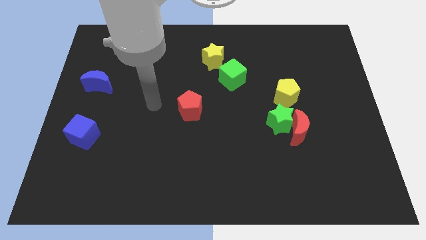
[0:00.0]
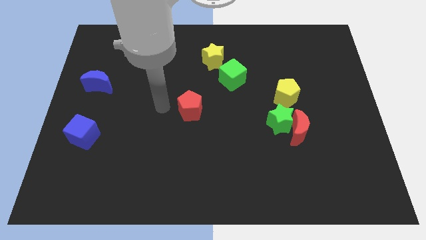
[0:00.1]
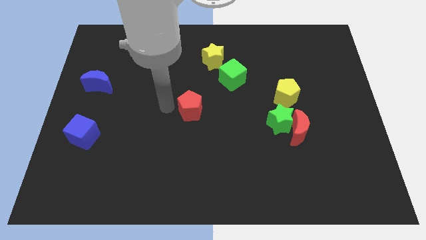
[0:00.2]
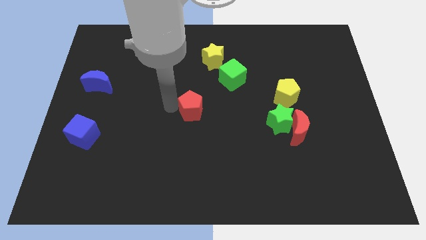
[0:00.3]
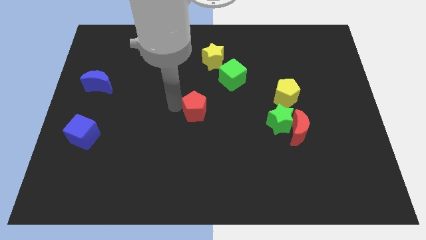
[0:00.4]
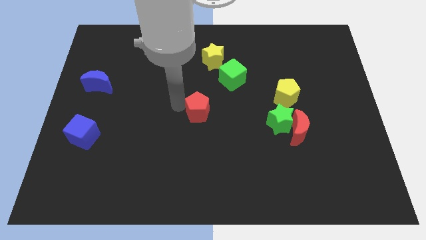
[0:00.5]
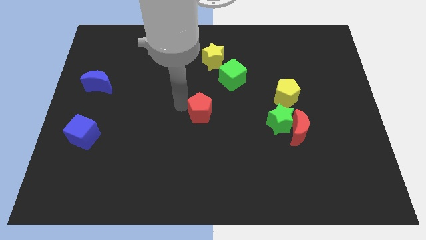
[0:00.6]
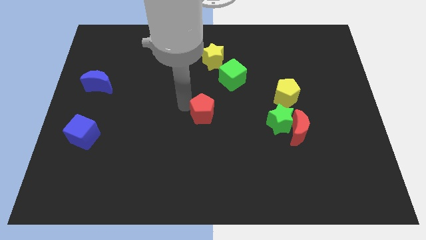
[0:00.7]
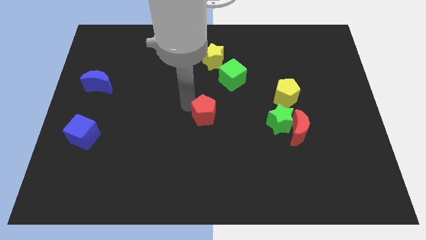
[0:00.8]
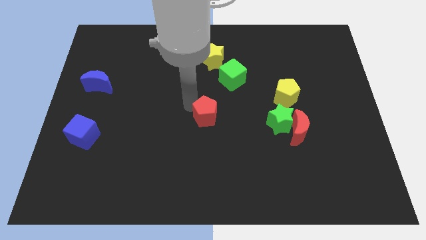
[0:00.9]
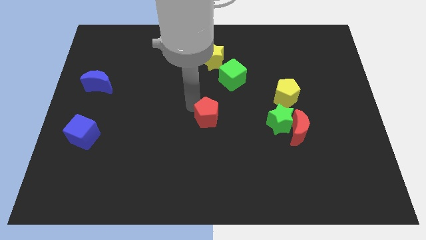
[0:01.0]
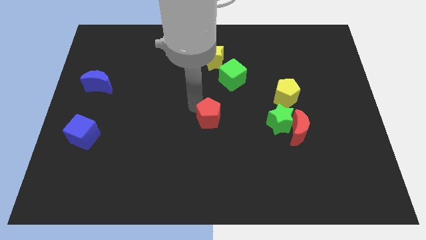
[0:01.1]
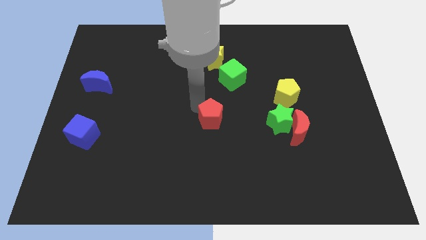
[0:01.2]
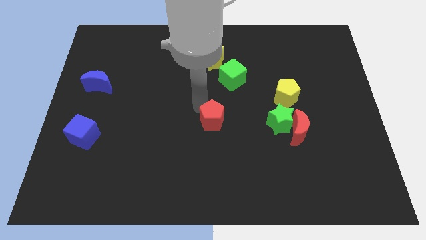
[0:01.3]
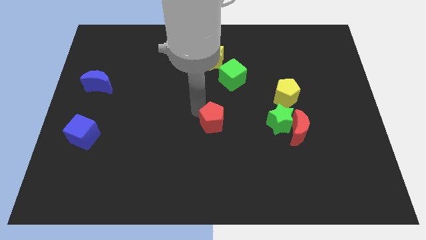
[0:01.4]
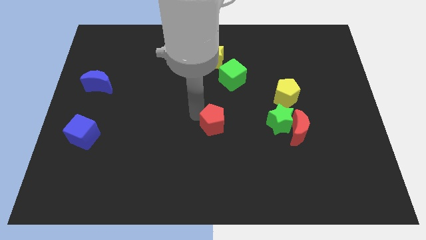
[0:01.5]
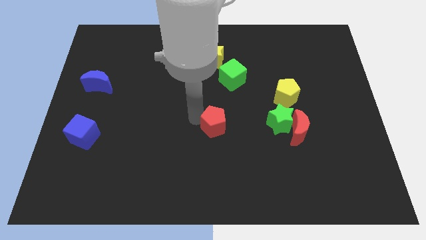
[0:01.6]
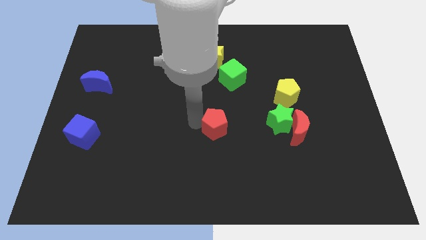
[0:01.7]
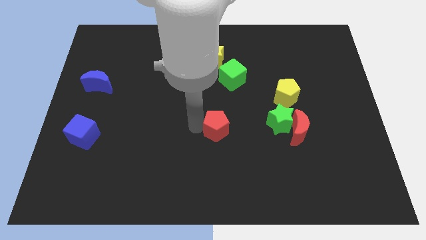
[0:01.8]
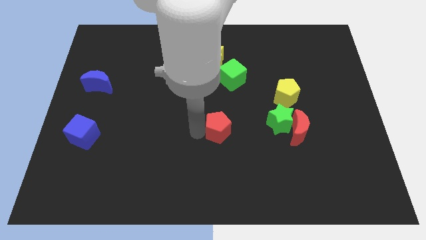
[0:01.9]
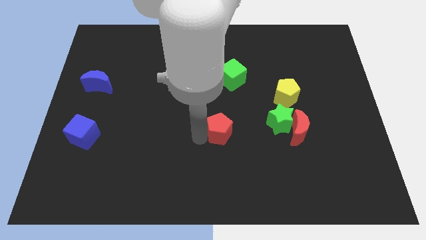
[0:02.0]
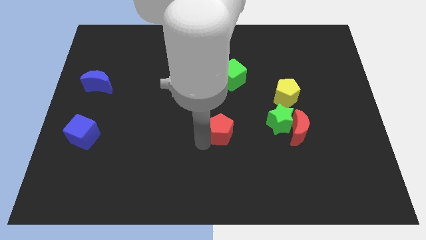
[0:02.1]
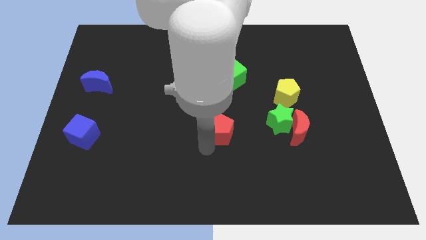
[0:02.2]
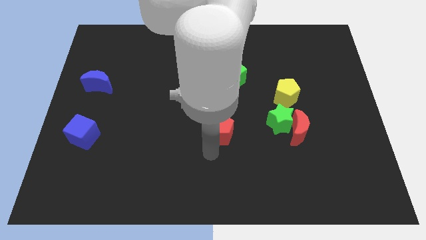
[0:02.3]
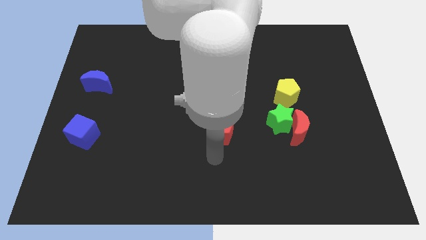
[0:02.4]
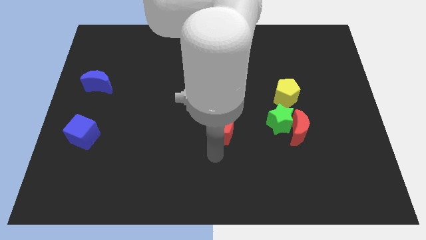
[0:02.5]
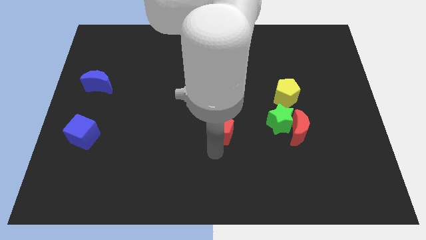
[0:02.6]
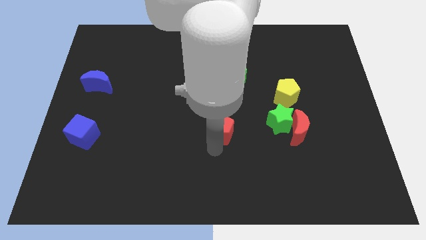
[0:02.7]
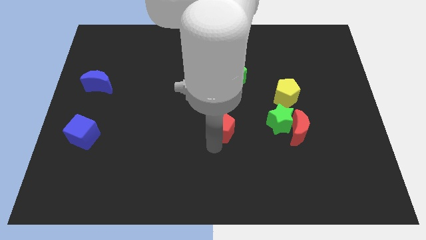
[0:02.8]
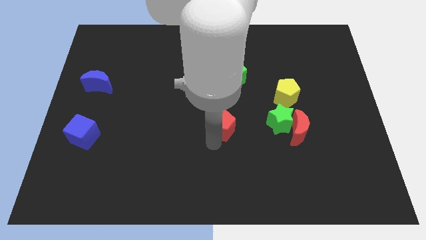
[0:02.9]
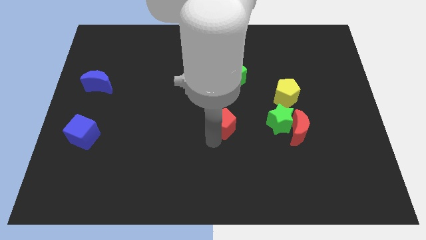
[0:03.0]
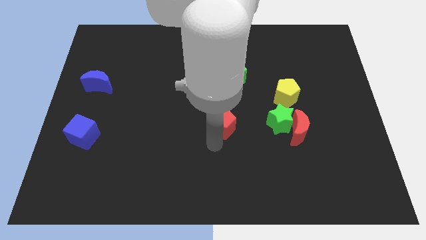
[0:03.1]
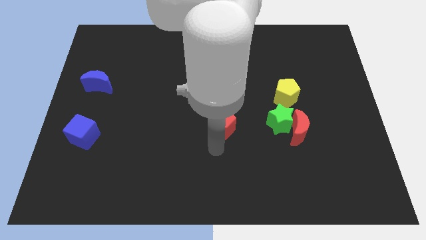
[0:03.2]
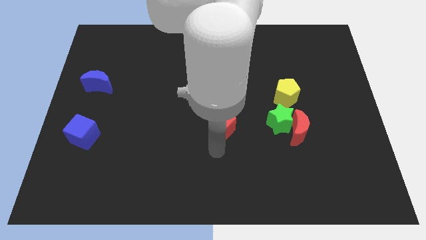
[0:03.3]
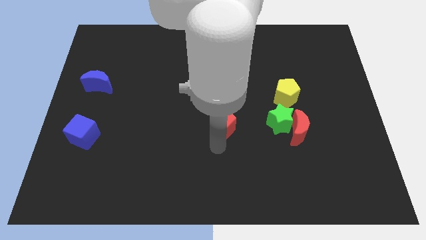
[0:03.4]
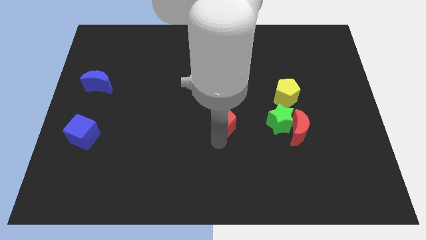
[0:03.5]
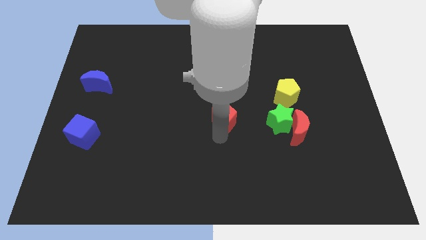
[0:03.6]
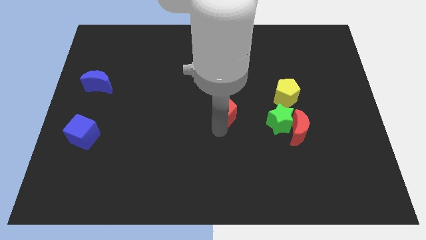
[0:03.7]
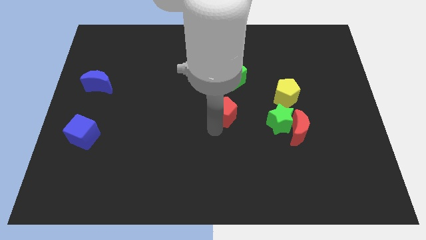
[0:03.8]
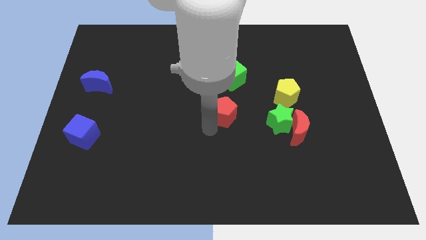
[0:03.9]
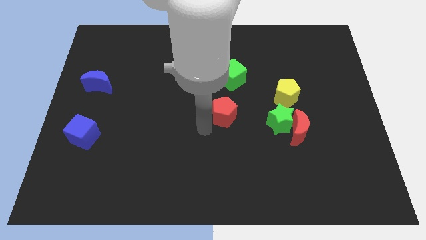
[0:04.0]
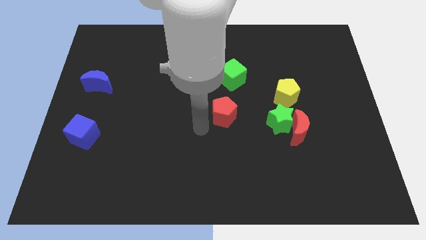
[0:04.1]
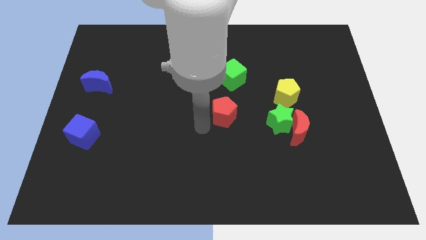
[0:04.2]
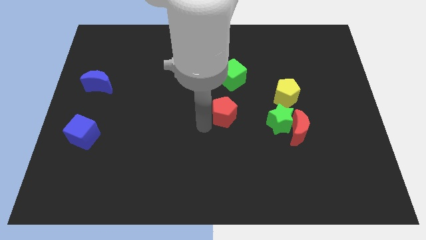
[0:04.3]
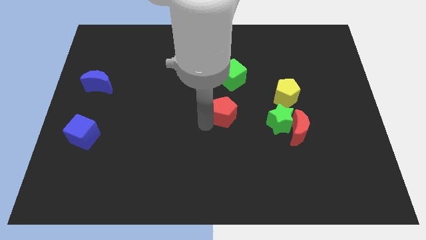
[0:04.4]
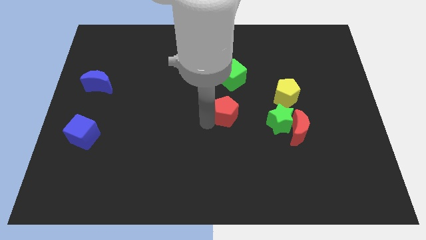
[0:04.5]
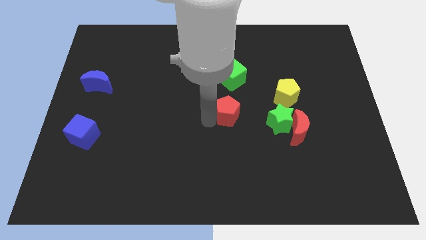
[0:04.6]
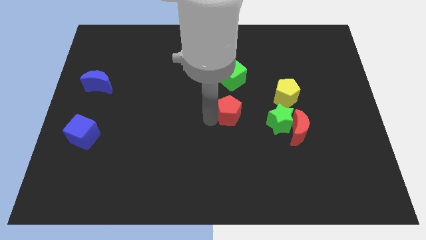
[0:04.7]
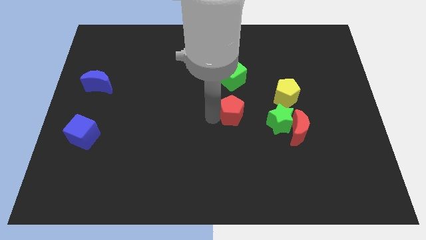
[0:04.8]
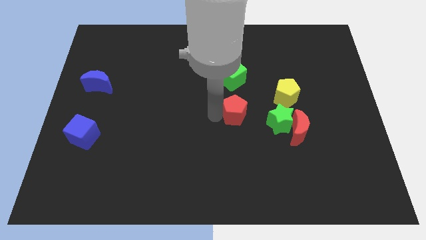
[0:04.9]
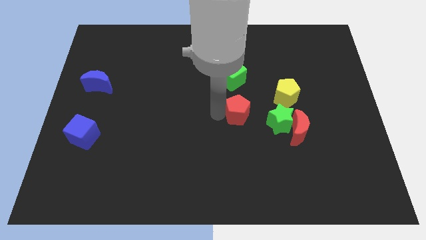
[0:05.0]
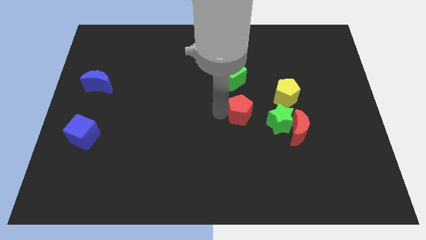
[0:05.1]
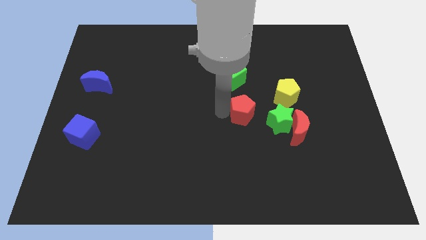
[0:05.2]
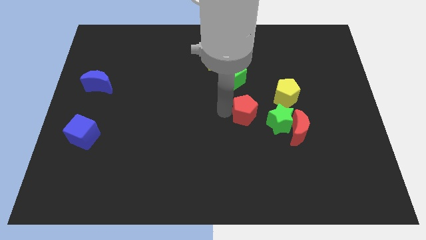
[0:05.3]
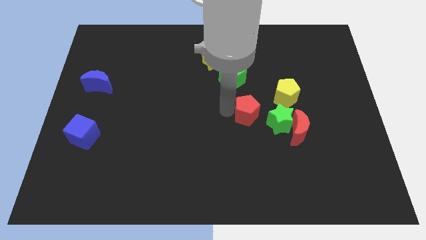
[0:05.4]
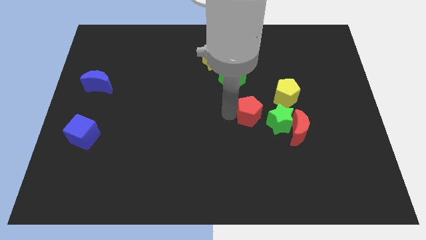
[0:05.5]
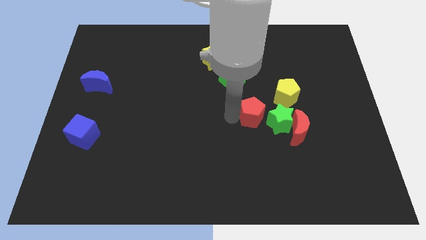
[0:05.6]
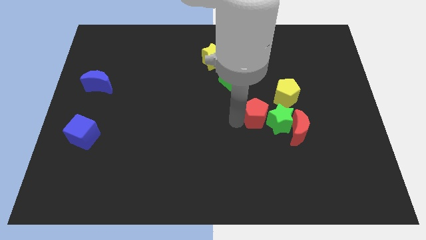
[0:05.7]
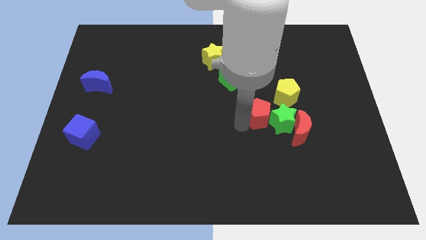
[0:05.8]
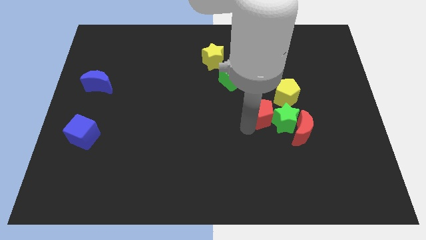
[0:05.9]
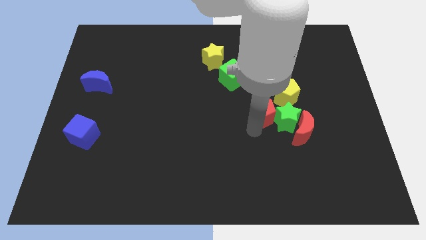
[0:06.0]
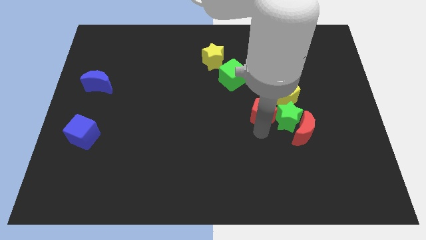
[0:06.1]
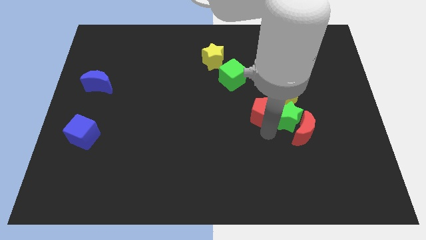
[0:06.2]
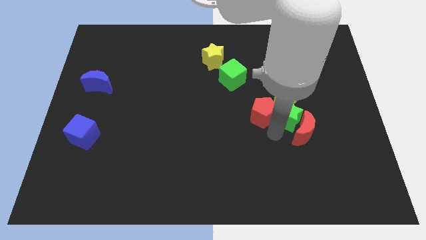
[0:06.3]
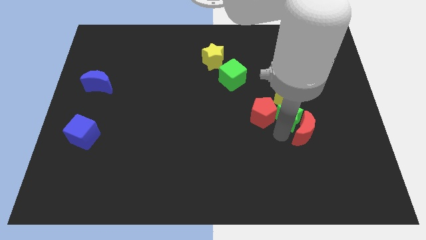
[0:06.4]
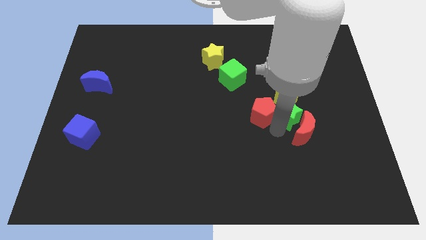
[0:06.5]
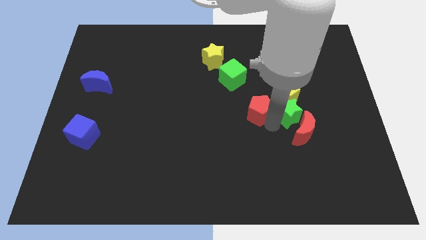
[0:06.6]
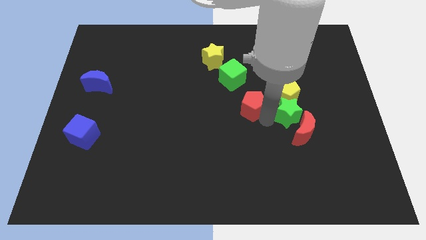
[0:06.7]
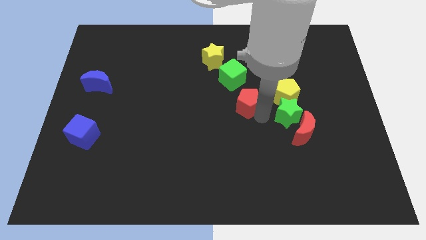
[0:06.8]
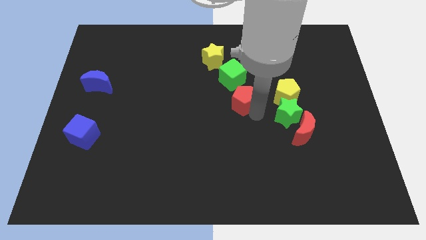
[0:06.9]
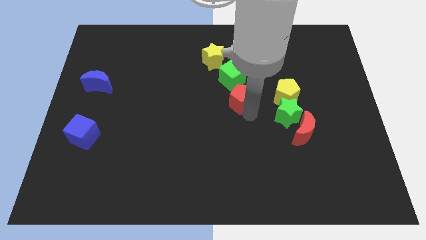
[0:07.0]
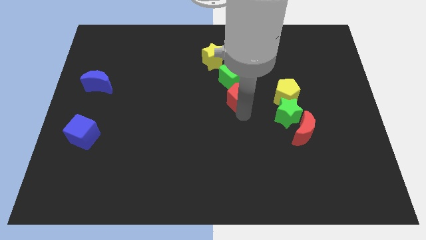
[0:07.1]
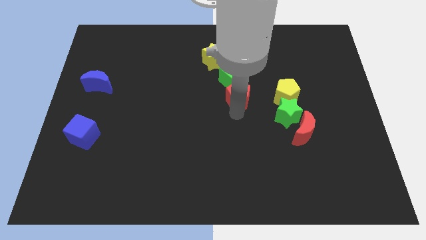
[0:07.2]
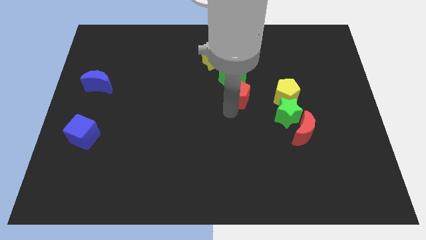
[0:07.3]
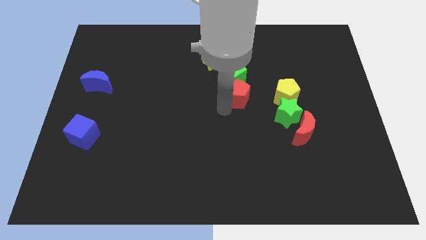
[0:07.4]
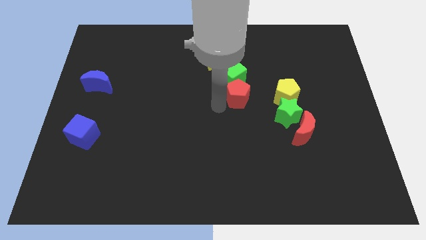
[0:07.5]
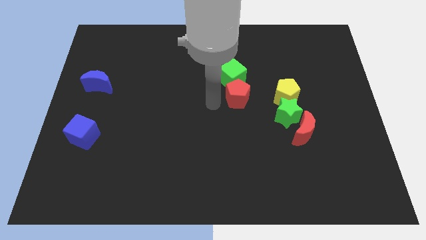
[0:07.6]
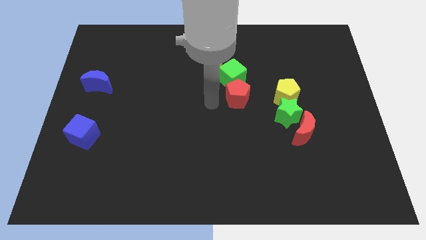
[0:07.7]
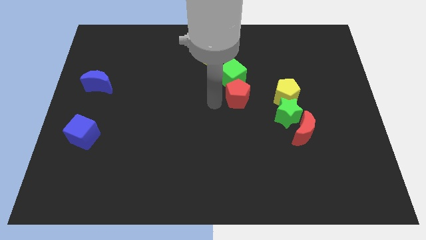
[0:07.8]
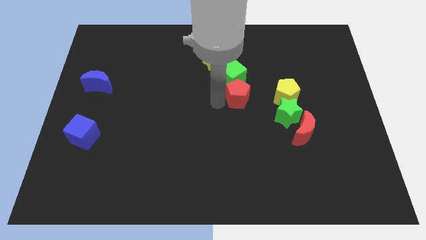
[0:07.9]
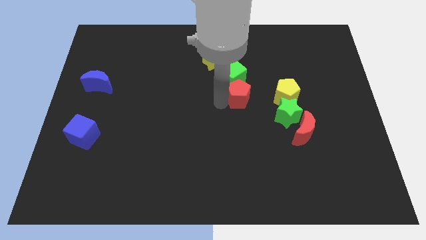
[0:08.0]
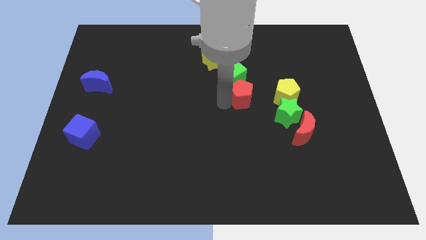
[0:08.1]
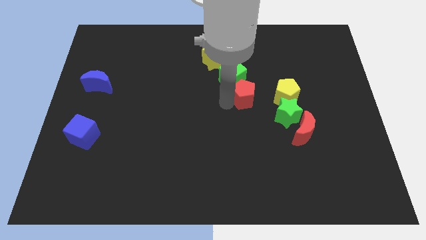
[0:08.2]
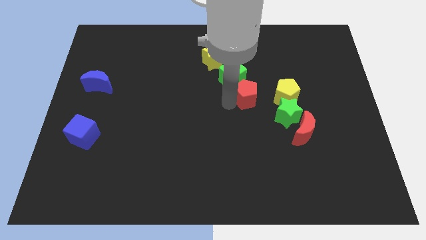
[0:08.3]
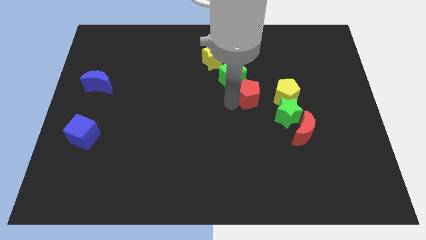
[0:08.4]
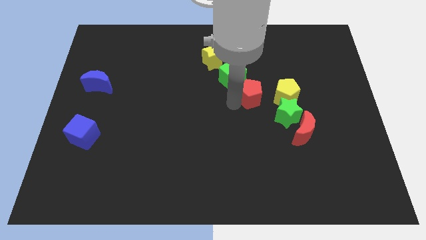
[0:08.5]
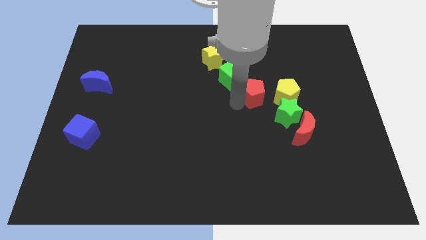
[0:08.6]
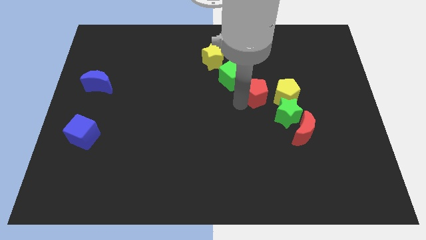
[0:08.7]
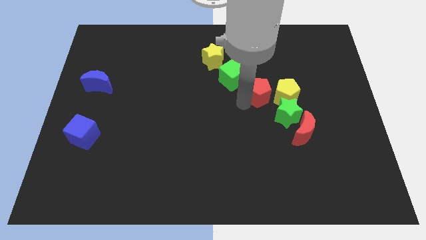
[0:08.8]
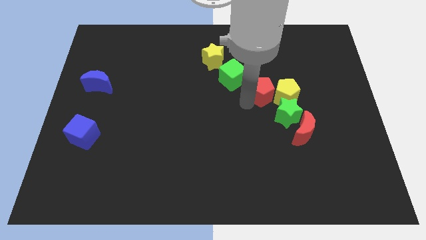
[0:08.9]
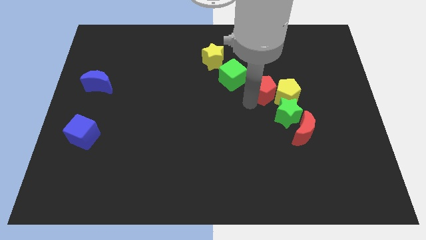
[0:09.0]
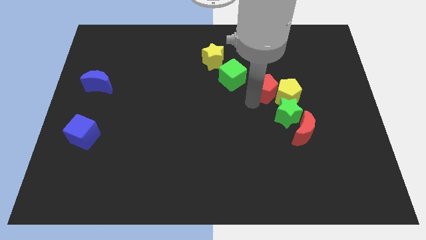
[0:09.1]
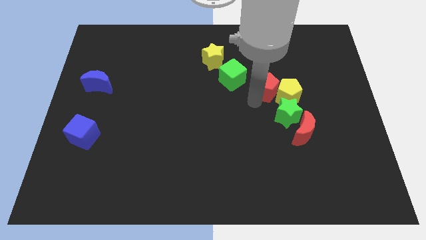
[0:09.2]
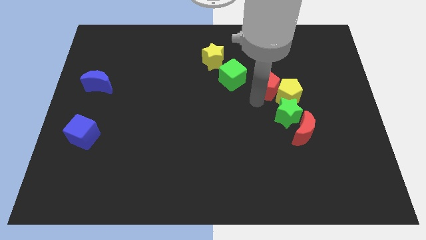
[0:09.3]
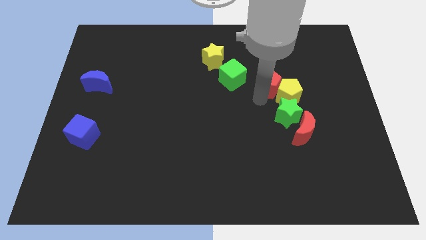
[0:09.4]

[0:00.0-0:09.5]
put the red pentagon to the top side of the yellow pentagon
